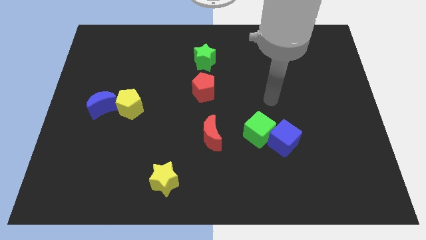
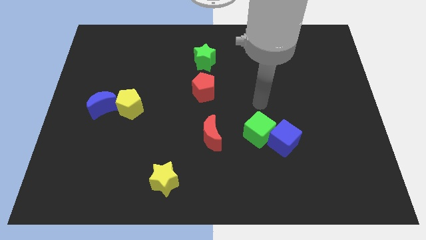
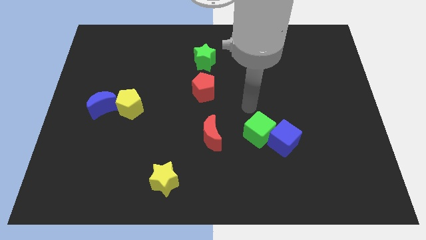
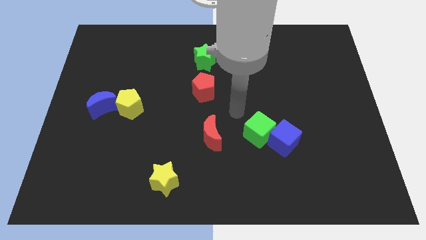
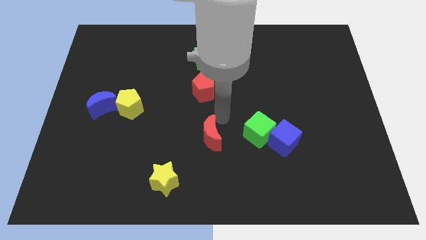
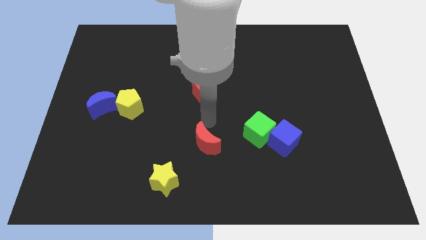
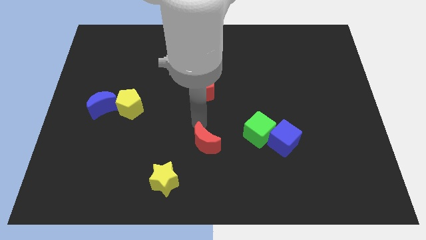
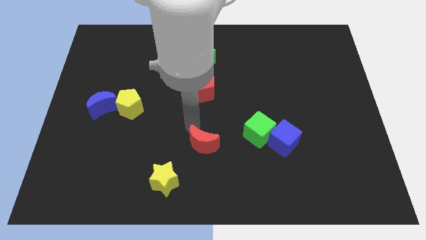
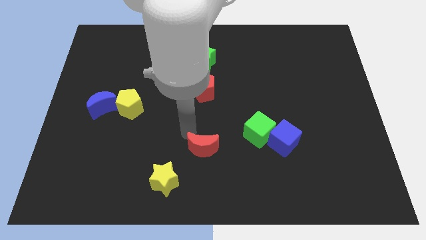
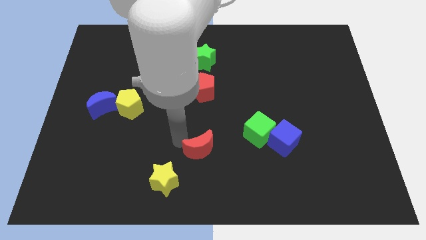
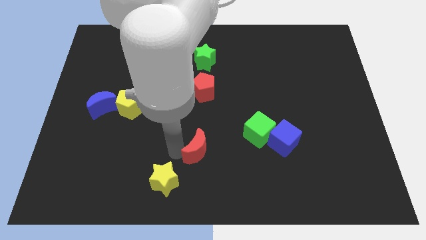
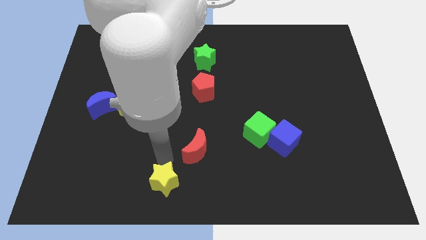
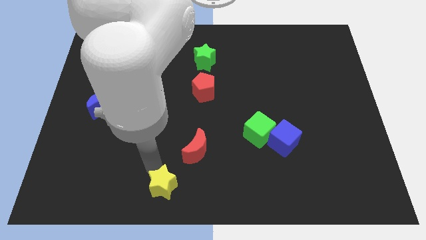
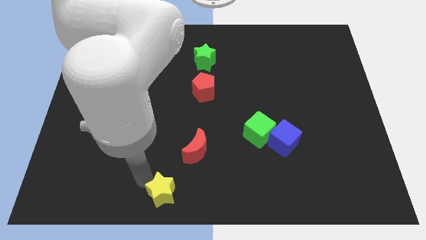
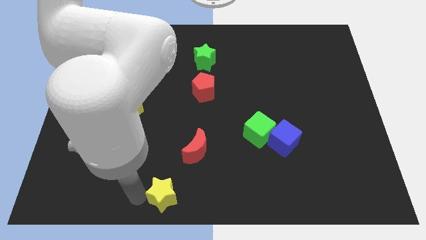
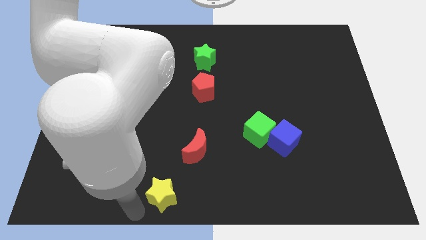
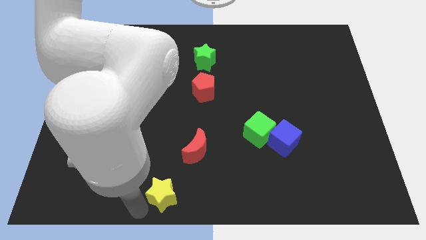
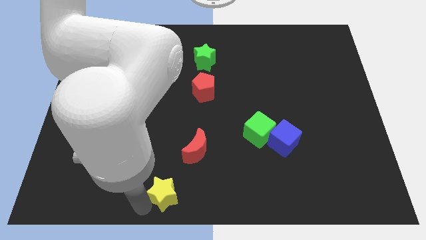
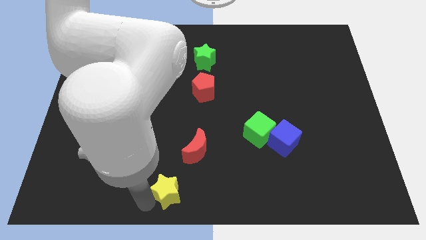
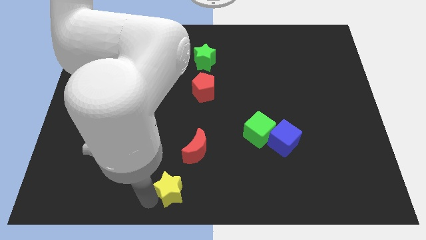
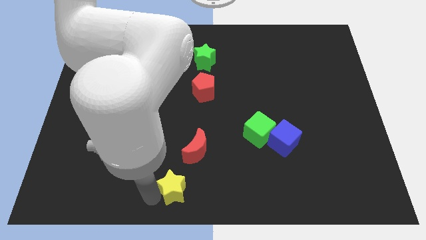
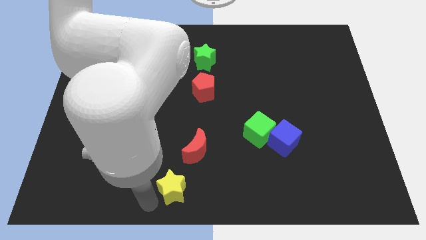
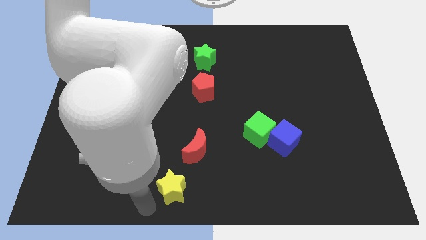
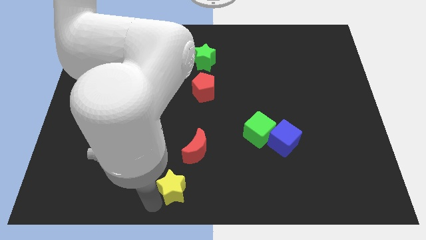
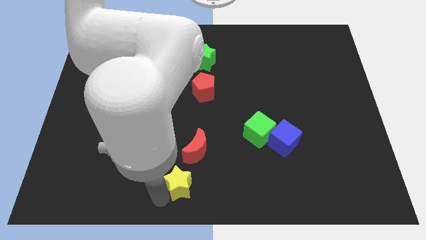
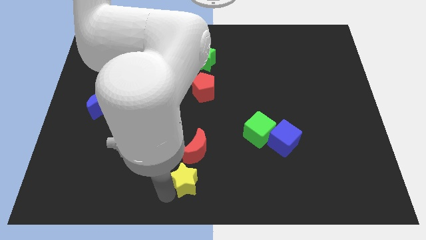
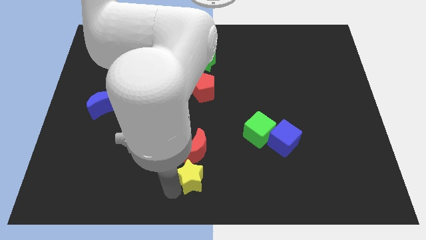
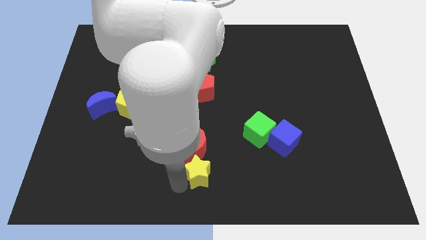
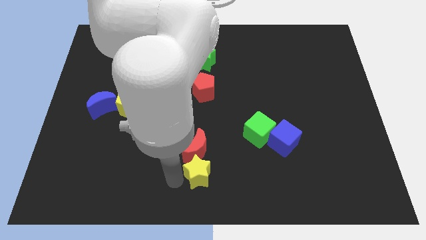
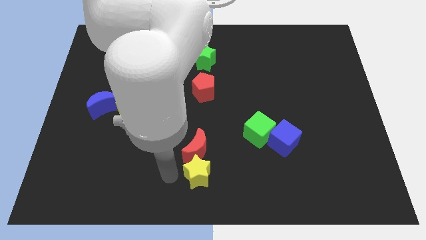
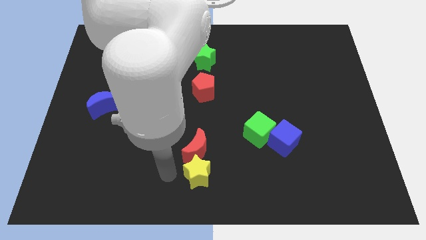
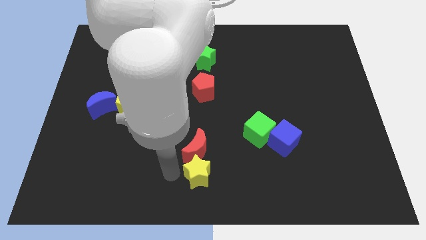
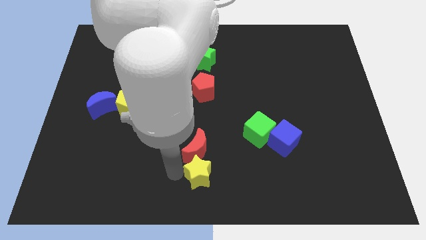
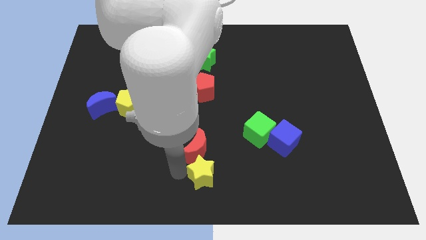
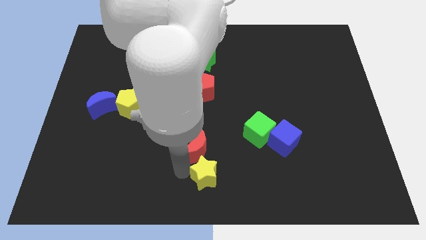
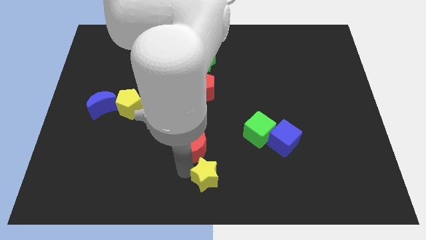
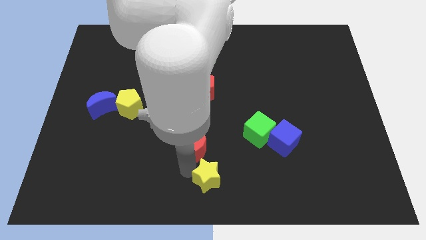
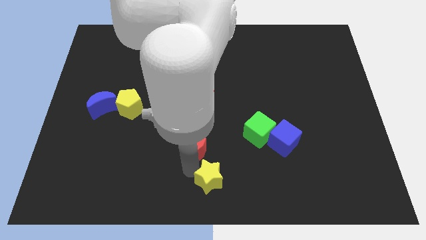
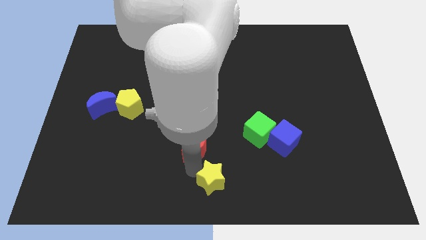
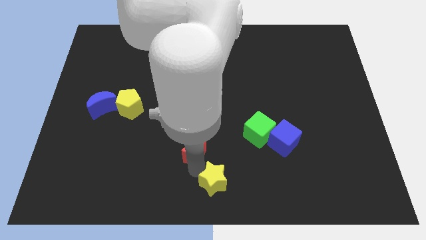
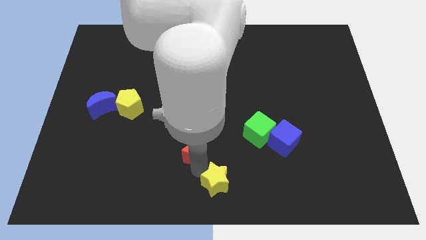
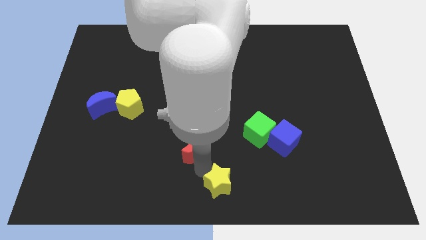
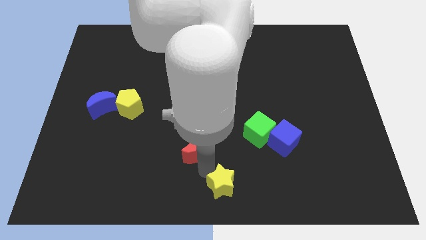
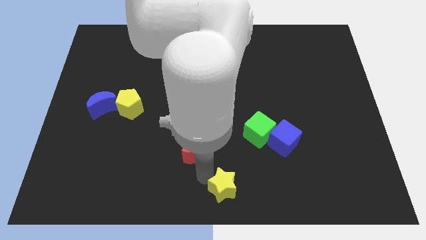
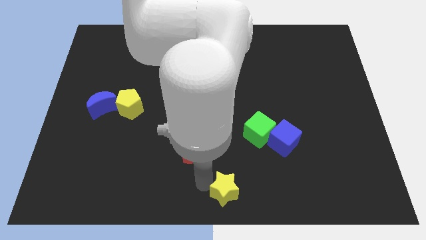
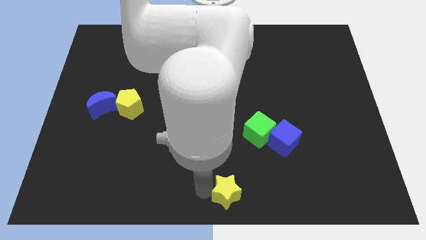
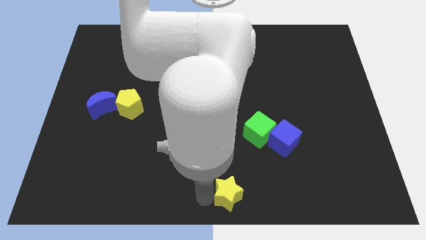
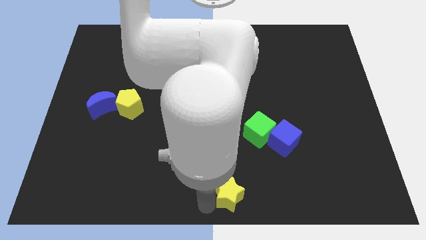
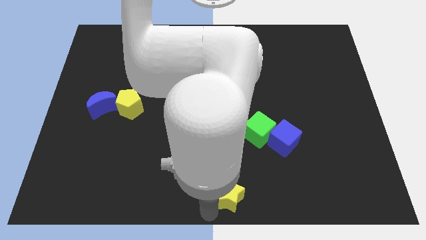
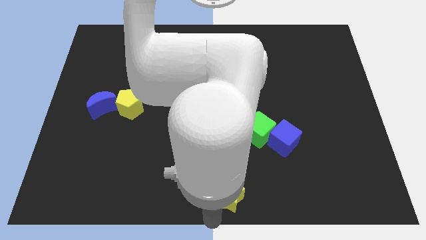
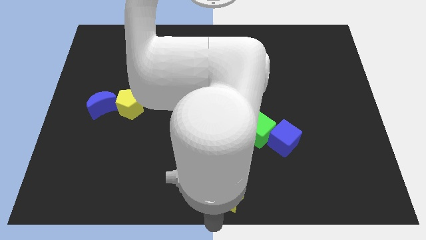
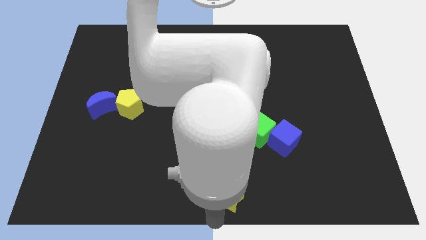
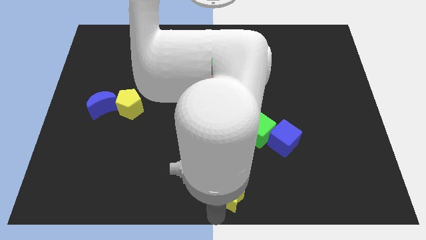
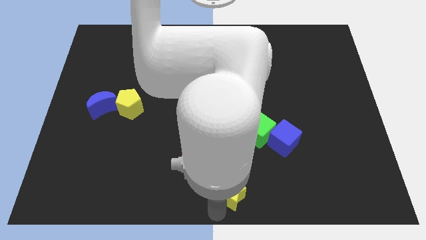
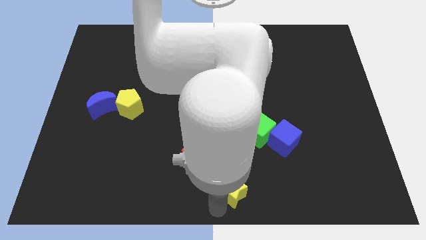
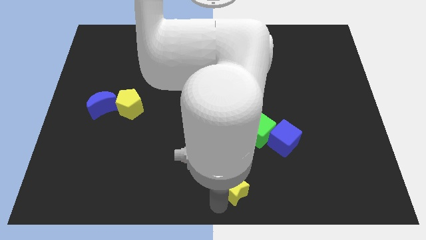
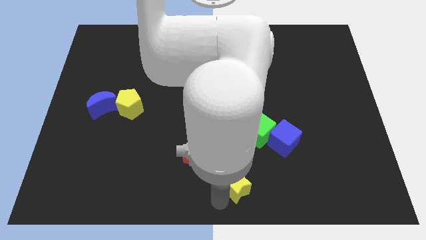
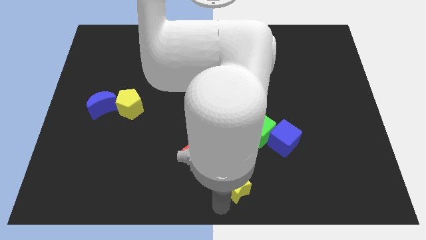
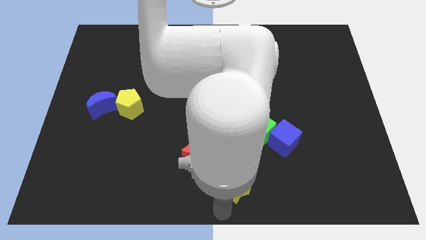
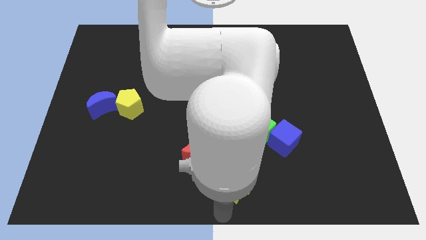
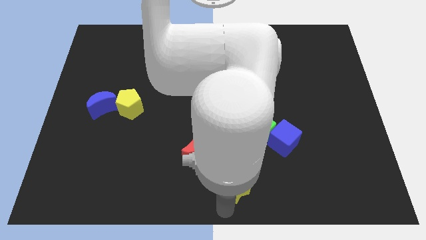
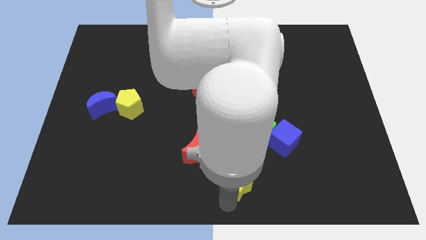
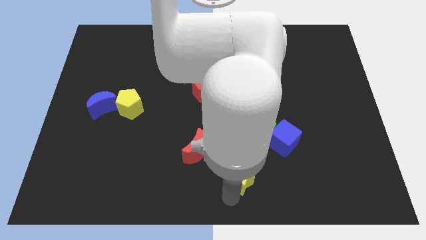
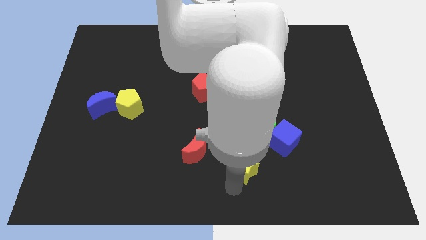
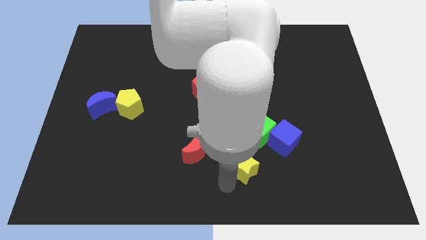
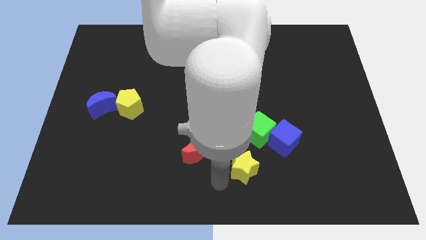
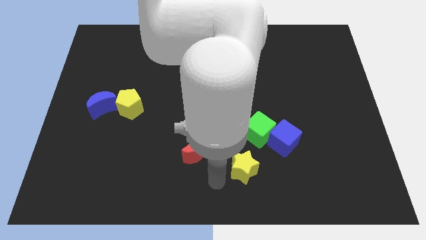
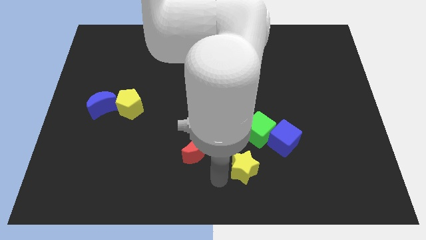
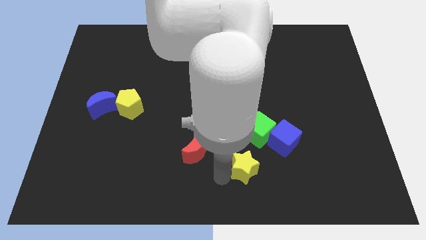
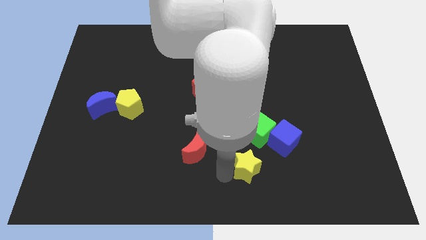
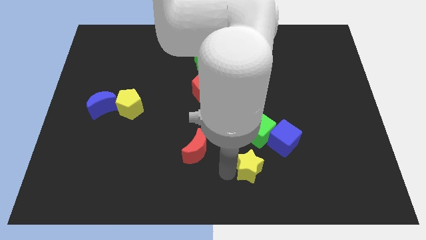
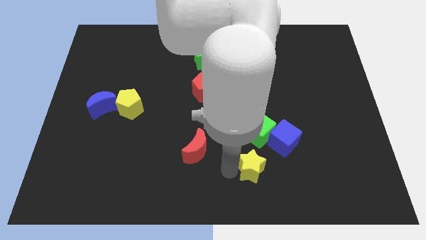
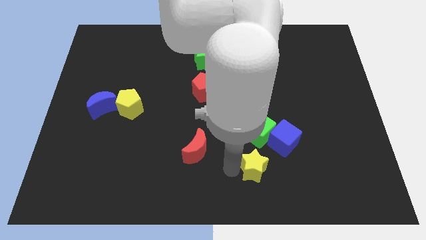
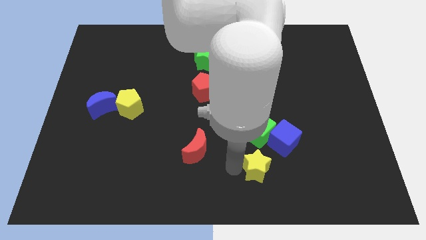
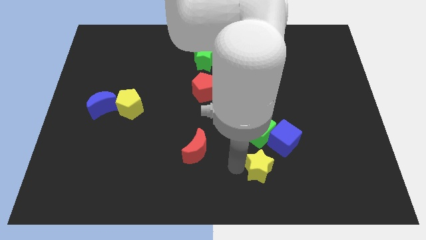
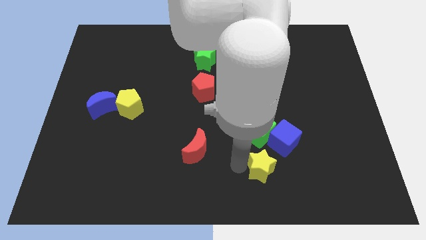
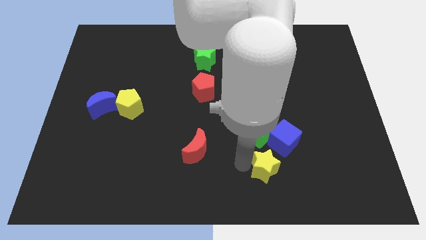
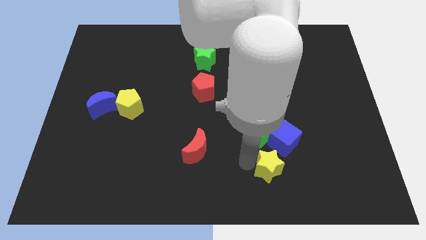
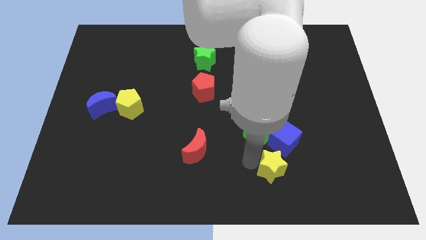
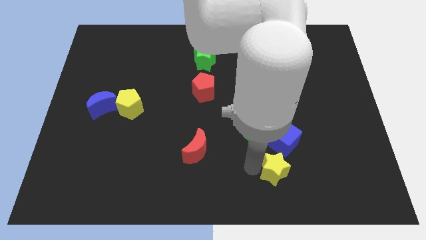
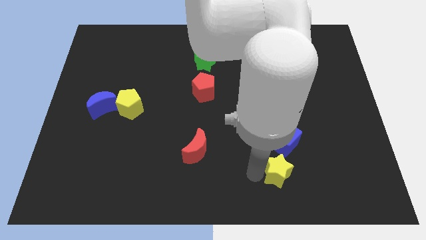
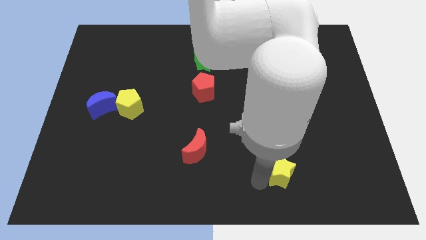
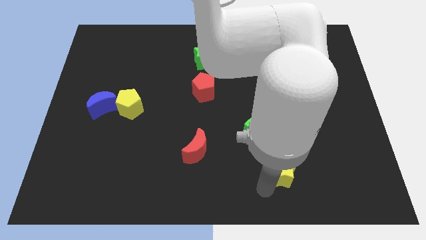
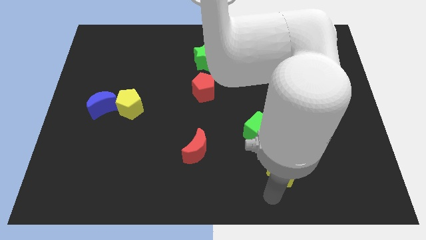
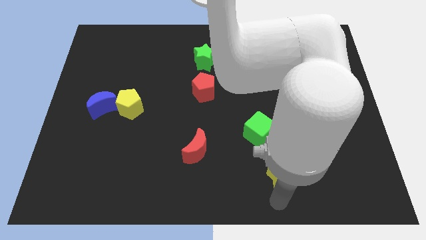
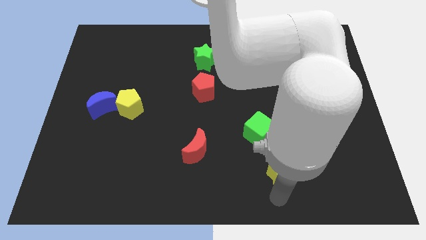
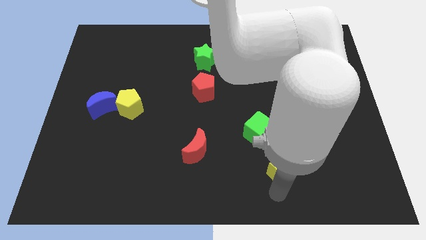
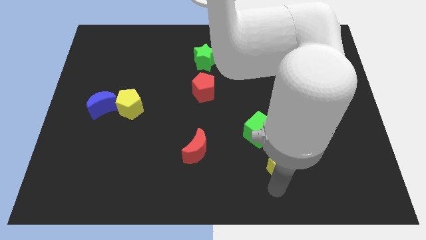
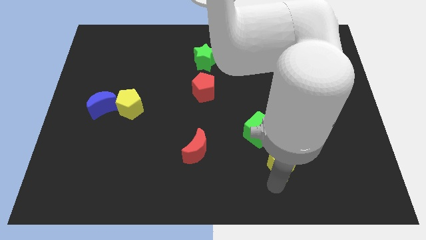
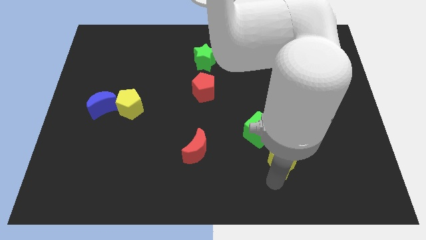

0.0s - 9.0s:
move the yellow star close to the blue cube
